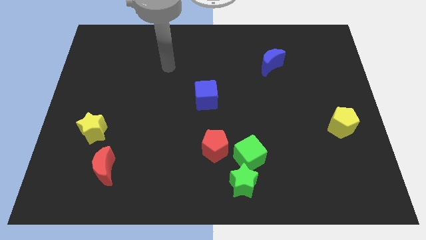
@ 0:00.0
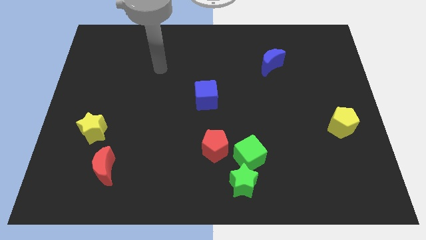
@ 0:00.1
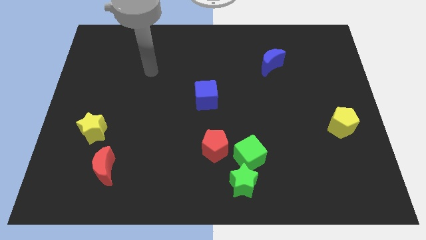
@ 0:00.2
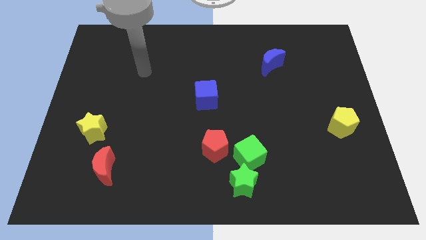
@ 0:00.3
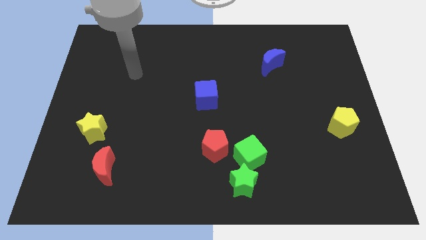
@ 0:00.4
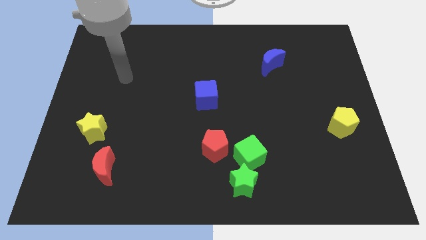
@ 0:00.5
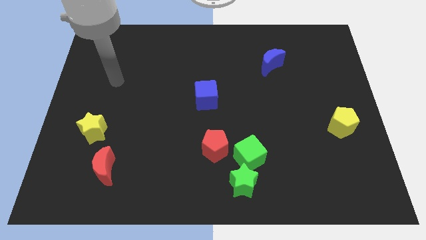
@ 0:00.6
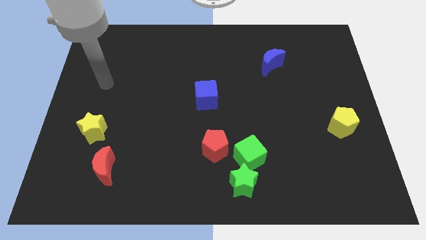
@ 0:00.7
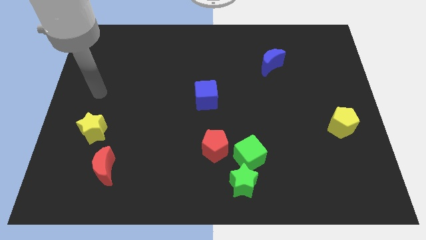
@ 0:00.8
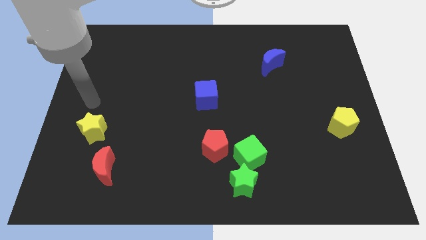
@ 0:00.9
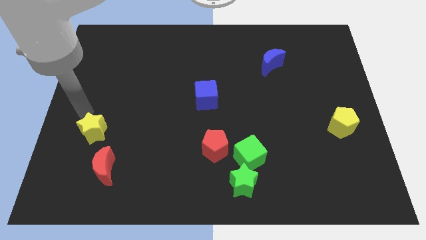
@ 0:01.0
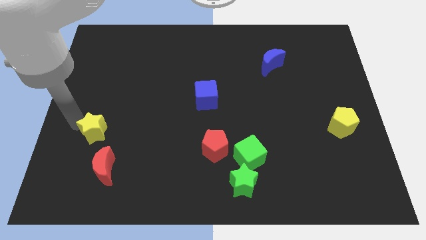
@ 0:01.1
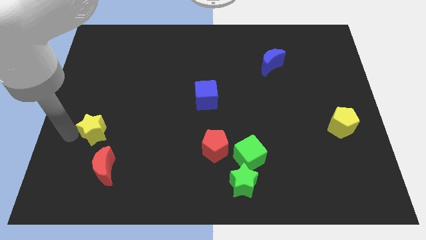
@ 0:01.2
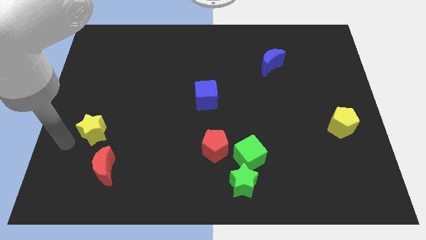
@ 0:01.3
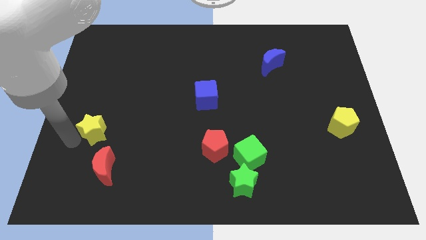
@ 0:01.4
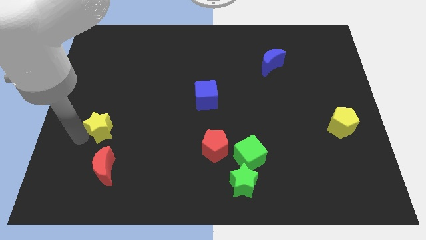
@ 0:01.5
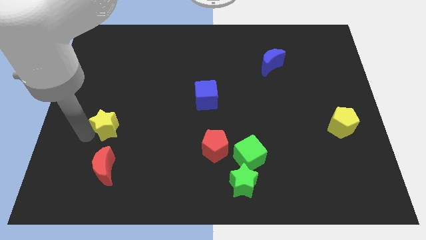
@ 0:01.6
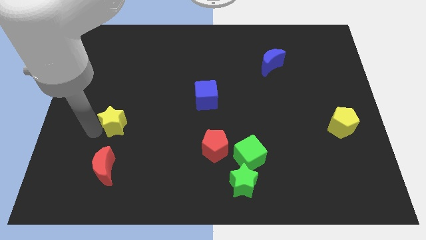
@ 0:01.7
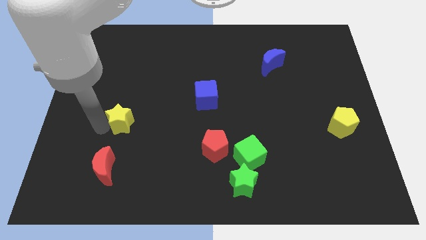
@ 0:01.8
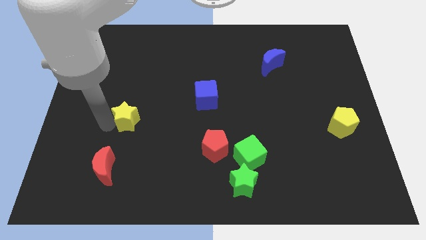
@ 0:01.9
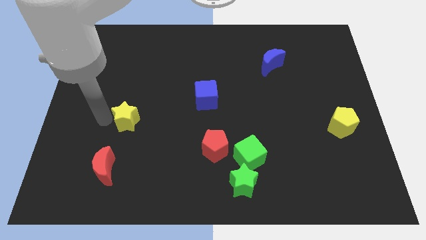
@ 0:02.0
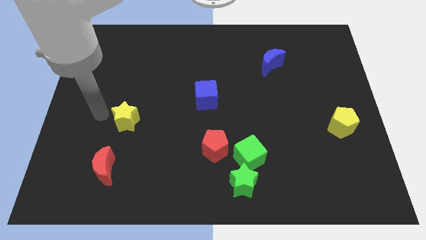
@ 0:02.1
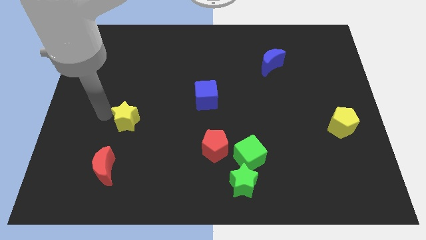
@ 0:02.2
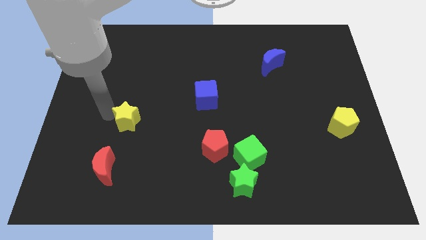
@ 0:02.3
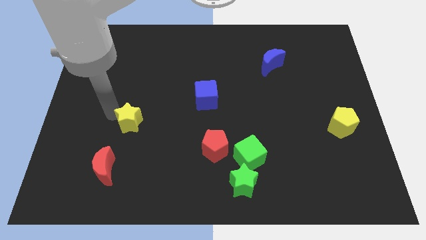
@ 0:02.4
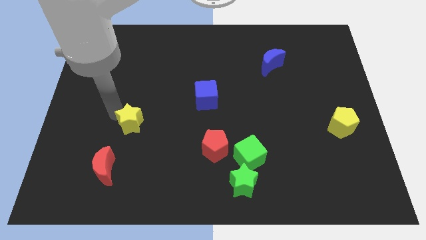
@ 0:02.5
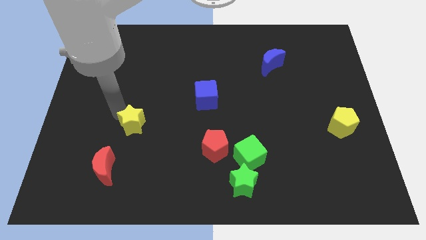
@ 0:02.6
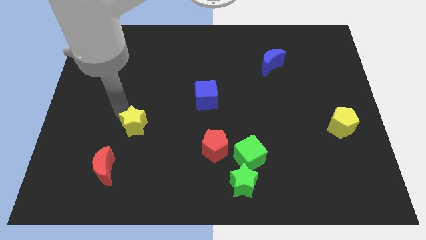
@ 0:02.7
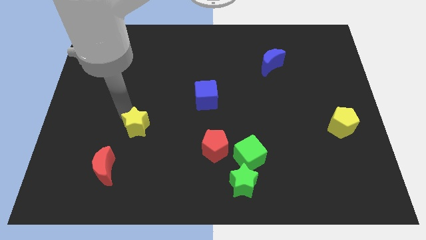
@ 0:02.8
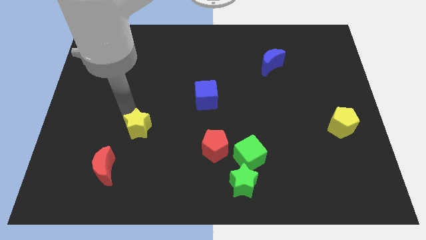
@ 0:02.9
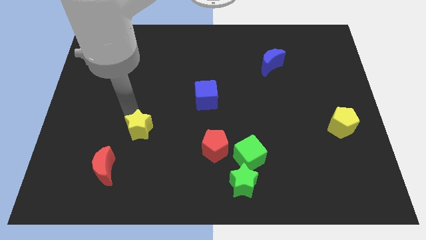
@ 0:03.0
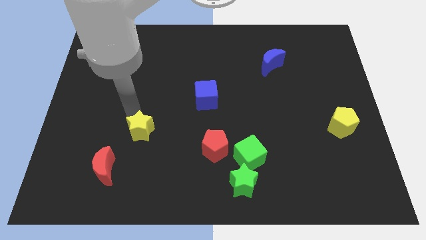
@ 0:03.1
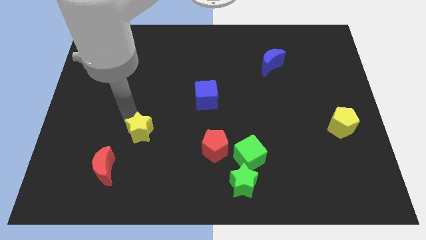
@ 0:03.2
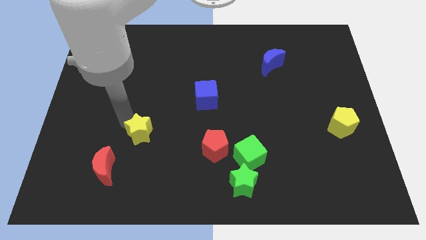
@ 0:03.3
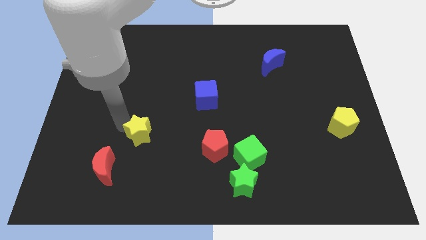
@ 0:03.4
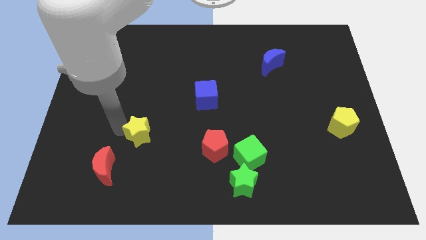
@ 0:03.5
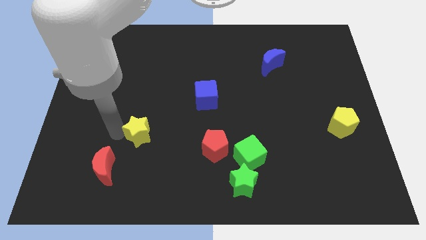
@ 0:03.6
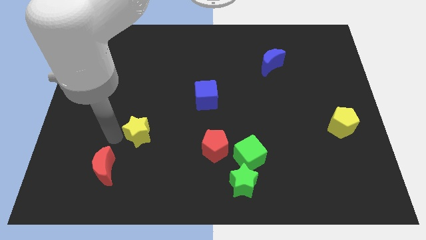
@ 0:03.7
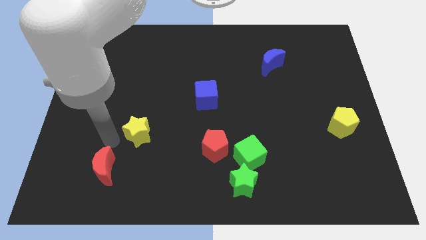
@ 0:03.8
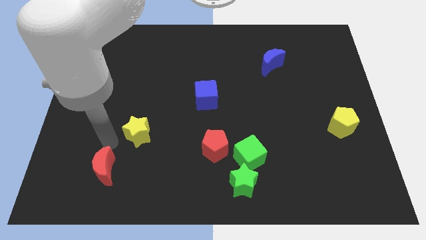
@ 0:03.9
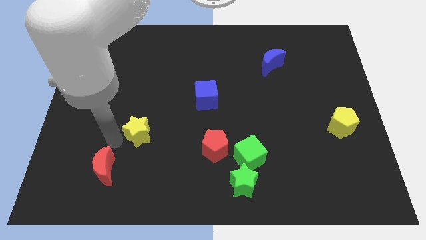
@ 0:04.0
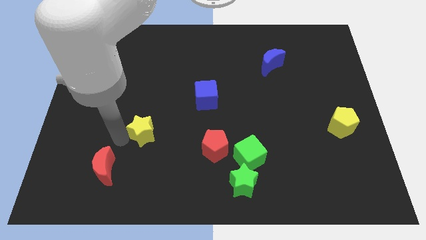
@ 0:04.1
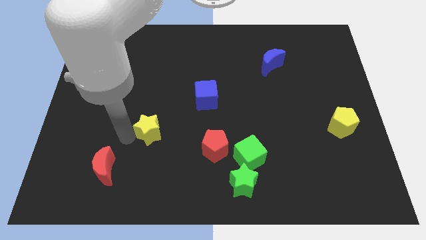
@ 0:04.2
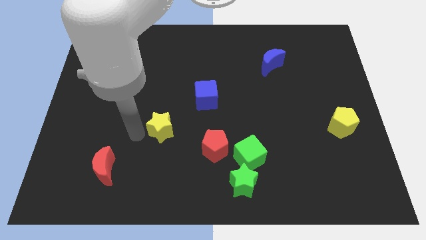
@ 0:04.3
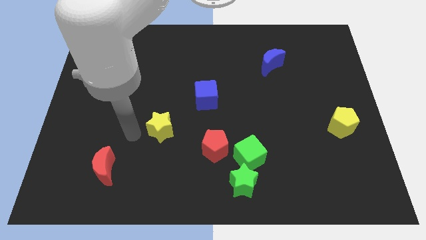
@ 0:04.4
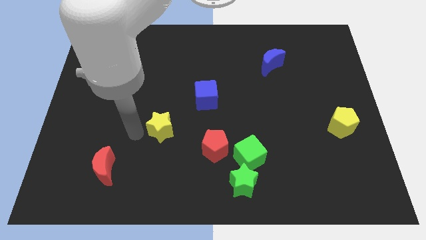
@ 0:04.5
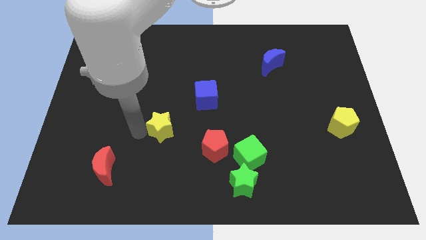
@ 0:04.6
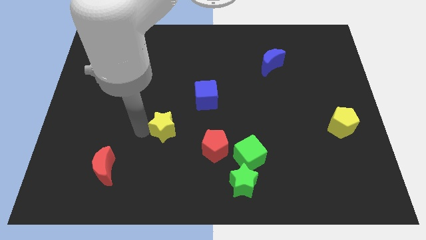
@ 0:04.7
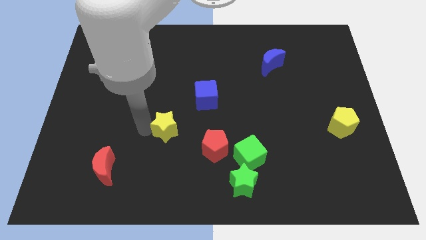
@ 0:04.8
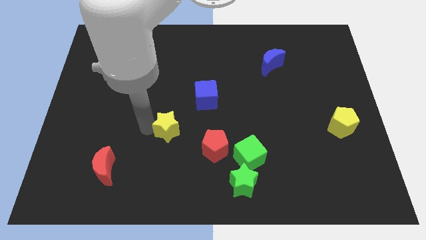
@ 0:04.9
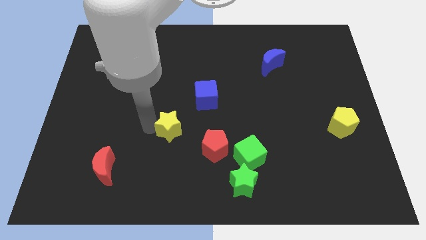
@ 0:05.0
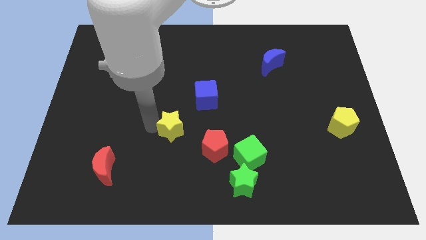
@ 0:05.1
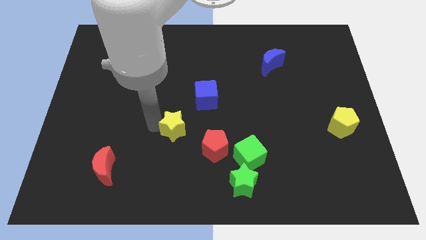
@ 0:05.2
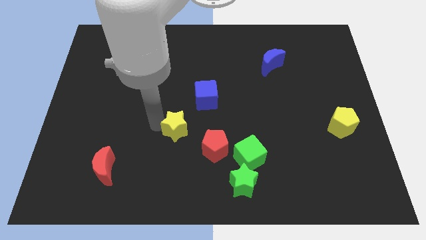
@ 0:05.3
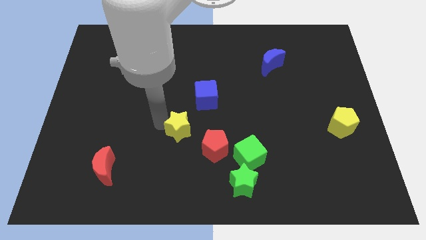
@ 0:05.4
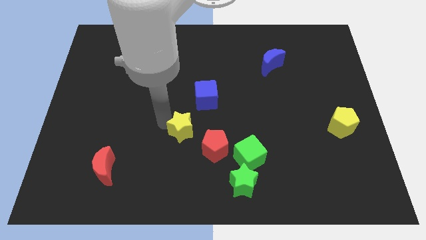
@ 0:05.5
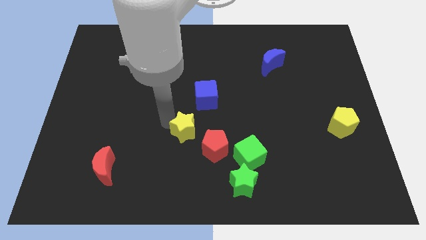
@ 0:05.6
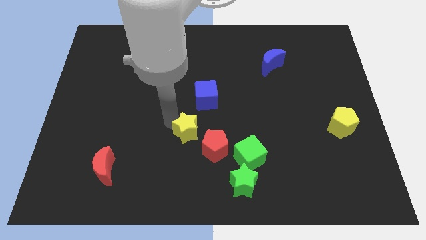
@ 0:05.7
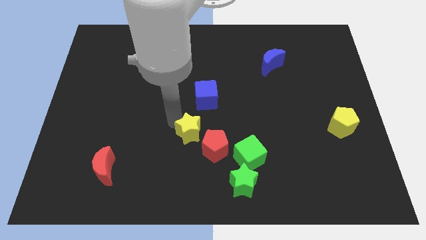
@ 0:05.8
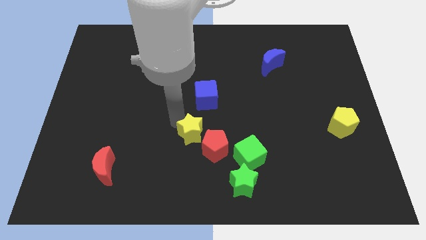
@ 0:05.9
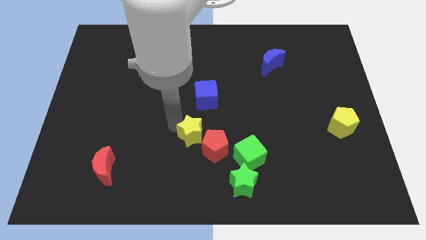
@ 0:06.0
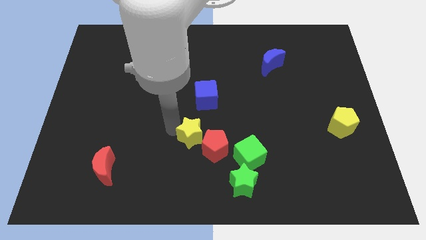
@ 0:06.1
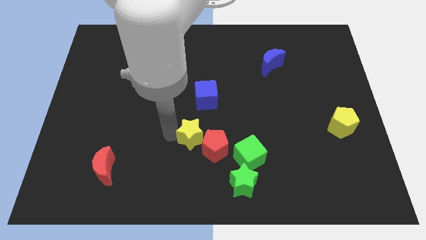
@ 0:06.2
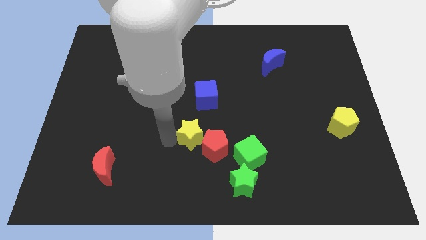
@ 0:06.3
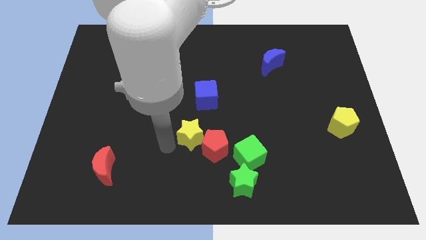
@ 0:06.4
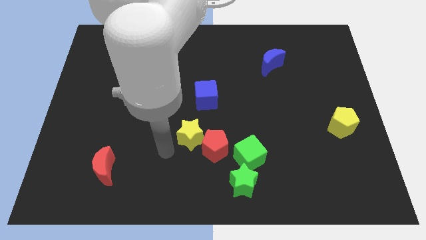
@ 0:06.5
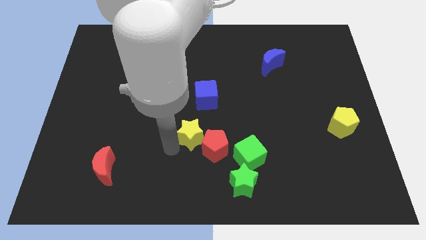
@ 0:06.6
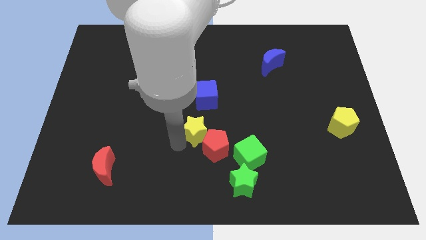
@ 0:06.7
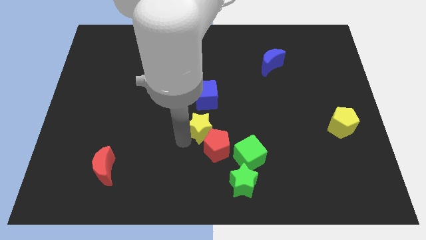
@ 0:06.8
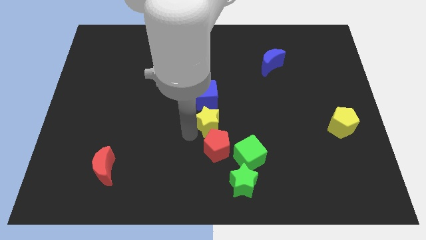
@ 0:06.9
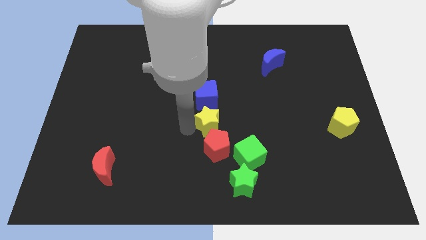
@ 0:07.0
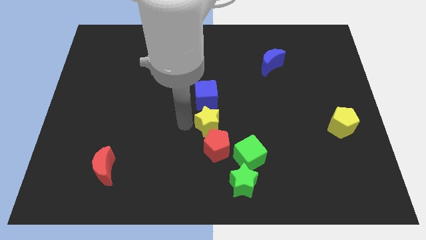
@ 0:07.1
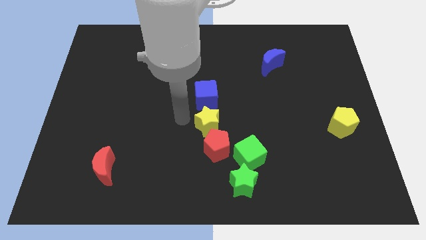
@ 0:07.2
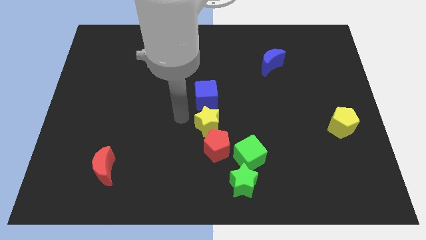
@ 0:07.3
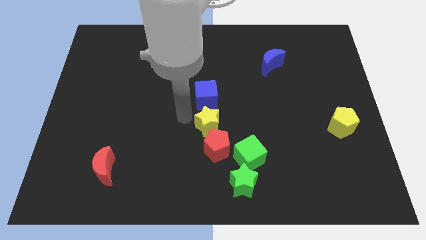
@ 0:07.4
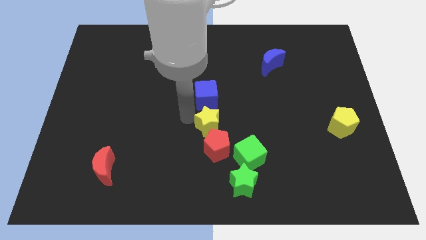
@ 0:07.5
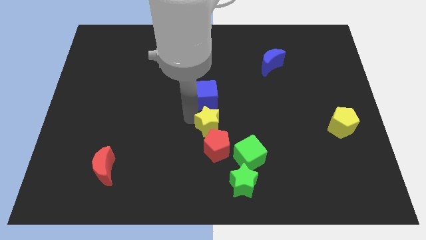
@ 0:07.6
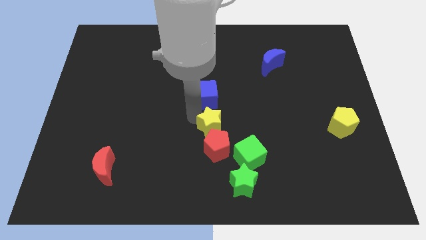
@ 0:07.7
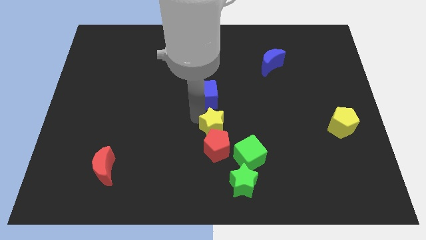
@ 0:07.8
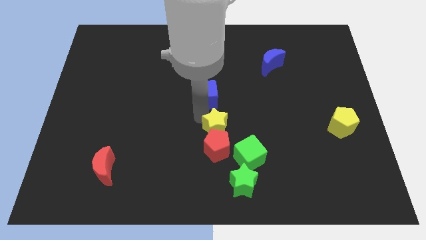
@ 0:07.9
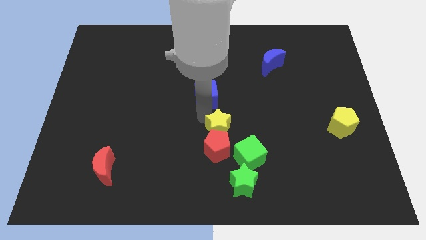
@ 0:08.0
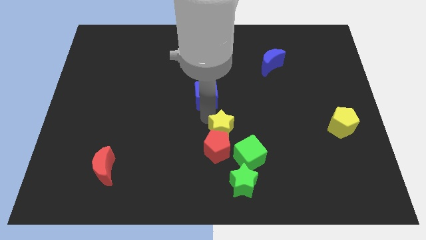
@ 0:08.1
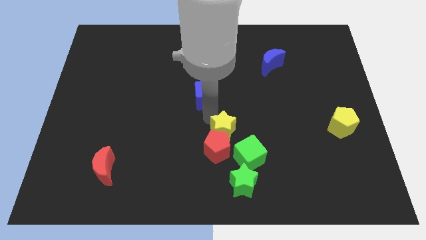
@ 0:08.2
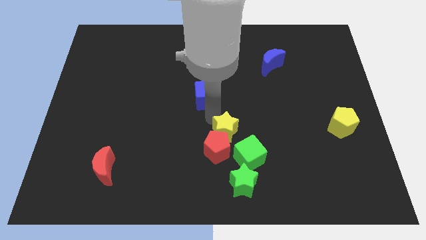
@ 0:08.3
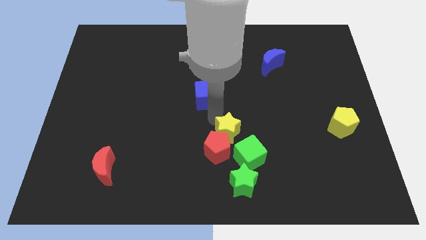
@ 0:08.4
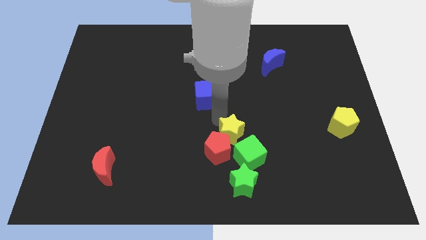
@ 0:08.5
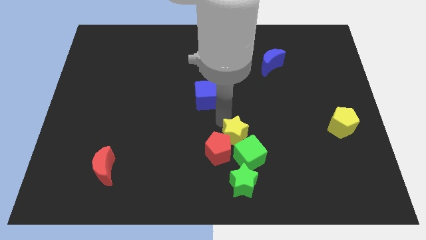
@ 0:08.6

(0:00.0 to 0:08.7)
move the yellow star just right of the red pentagon
